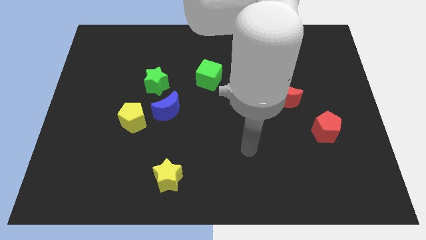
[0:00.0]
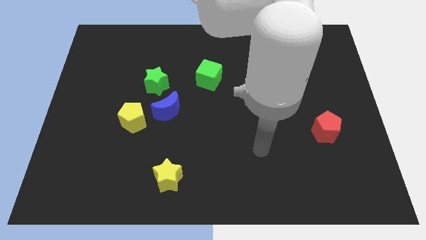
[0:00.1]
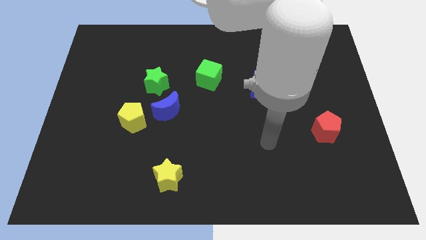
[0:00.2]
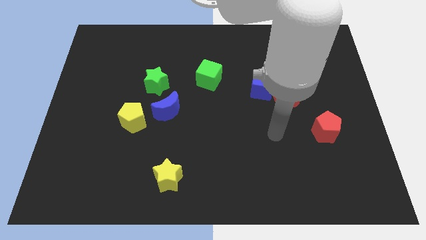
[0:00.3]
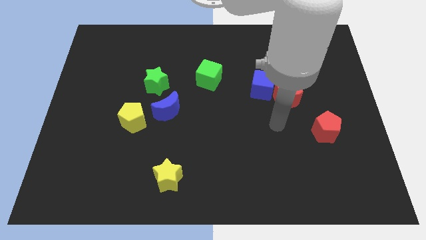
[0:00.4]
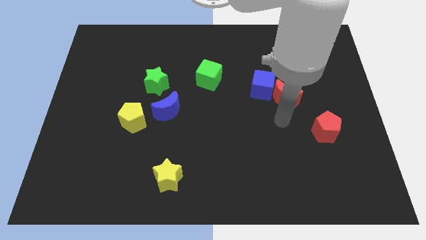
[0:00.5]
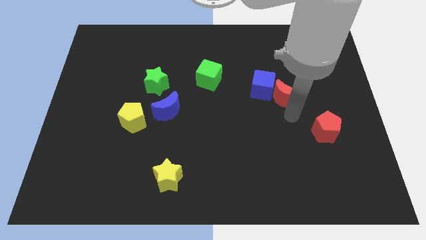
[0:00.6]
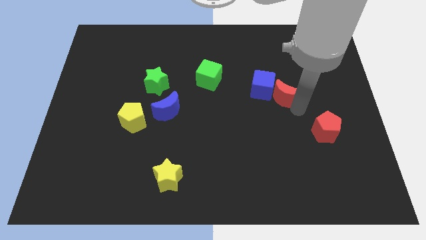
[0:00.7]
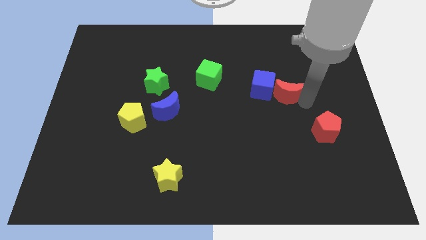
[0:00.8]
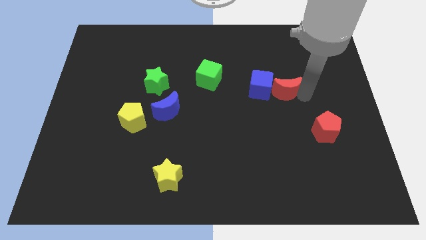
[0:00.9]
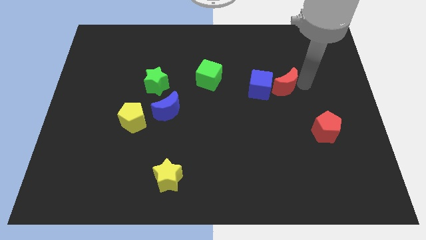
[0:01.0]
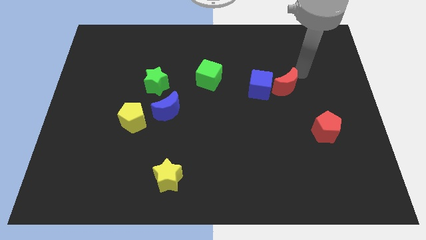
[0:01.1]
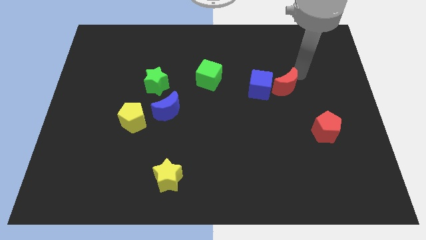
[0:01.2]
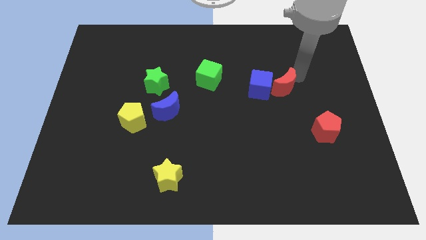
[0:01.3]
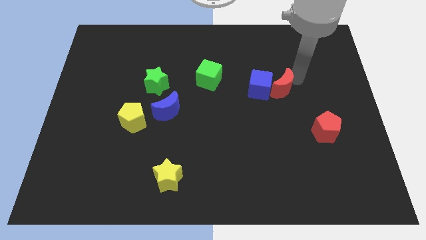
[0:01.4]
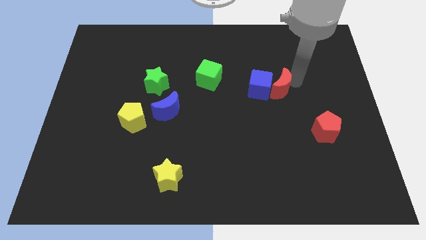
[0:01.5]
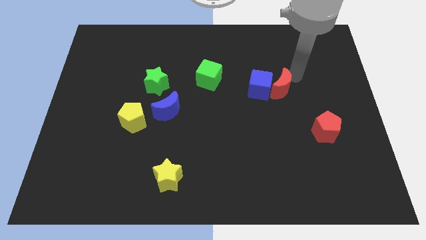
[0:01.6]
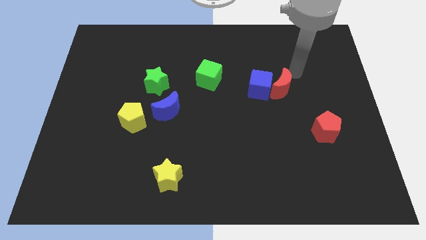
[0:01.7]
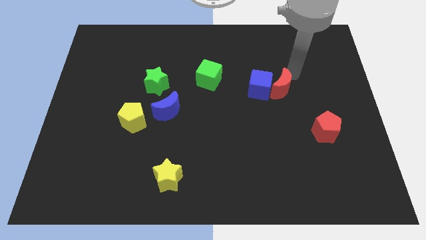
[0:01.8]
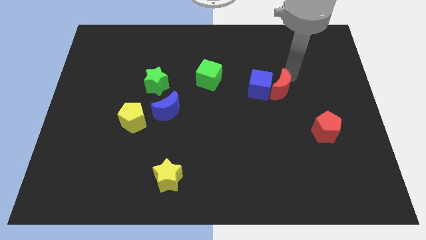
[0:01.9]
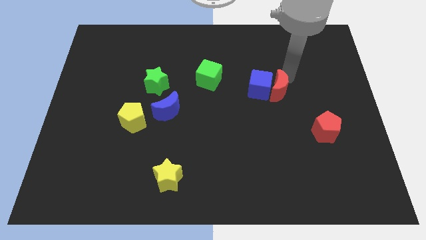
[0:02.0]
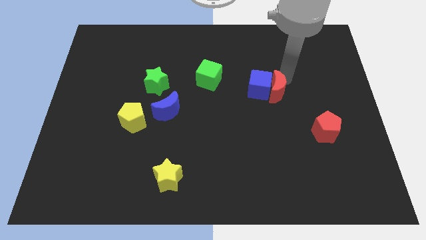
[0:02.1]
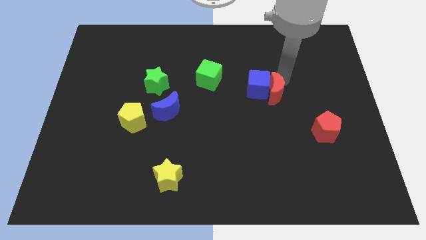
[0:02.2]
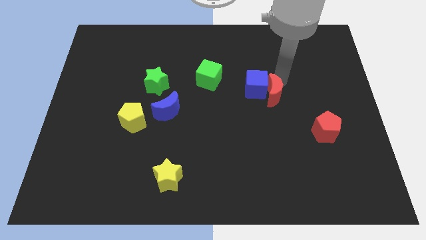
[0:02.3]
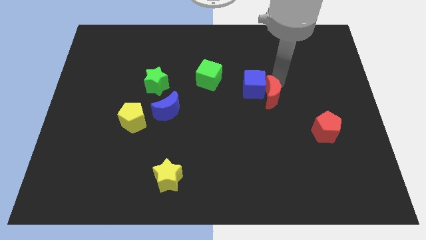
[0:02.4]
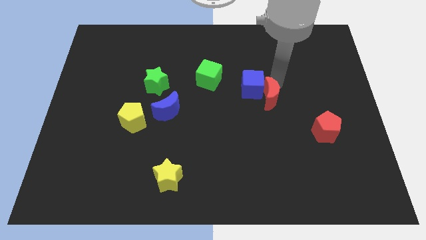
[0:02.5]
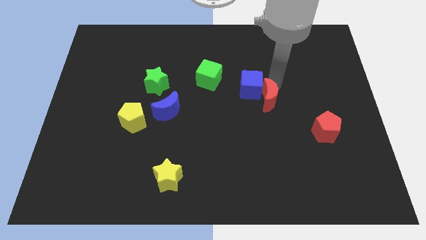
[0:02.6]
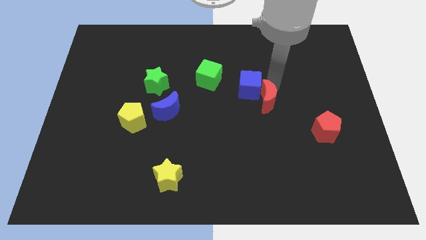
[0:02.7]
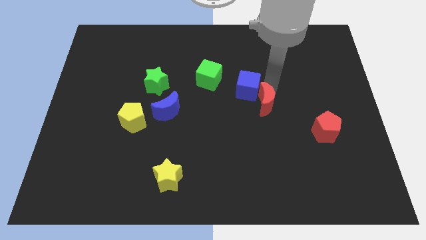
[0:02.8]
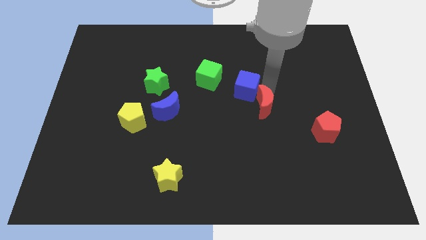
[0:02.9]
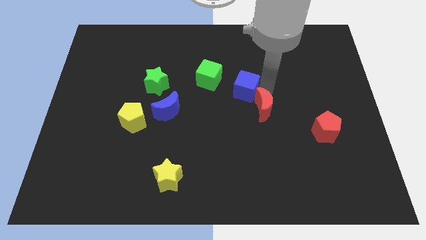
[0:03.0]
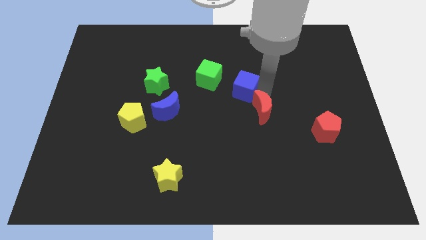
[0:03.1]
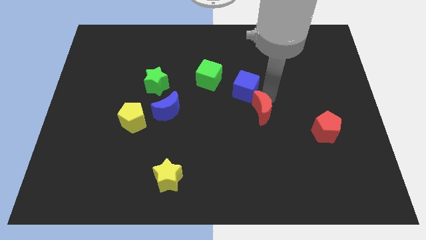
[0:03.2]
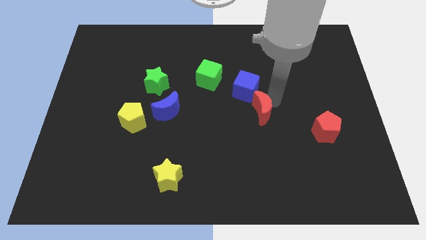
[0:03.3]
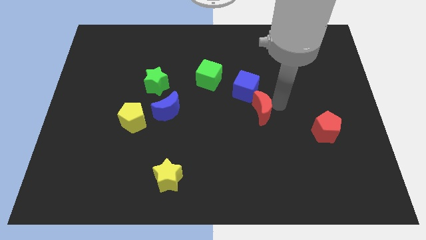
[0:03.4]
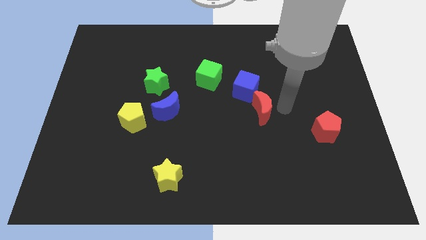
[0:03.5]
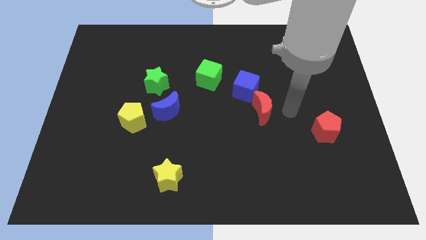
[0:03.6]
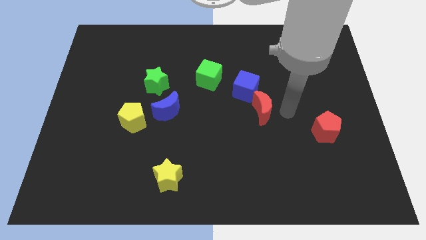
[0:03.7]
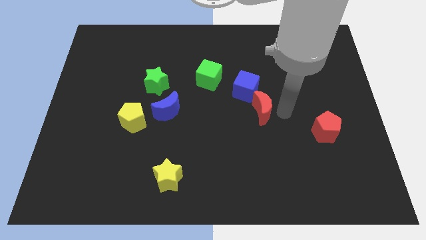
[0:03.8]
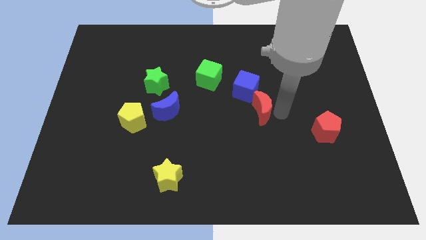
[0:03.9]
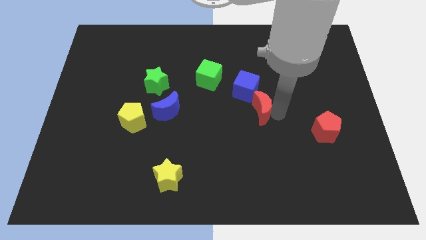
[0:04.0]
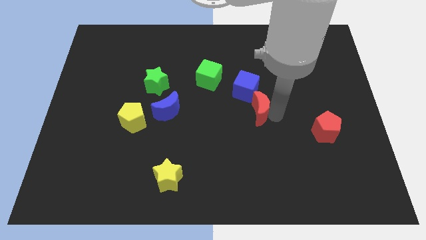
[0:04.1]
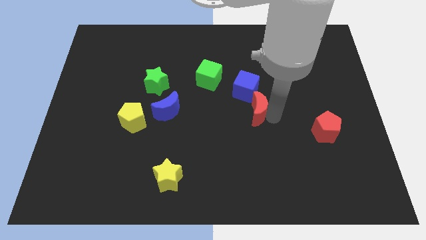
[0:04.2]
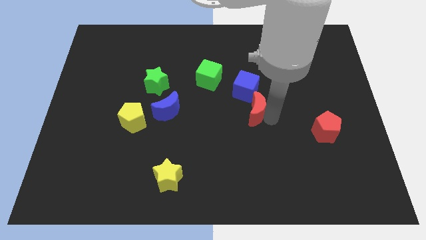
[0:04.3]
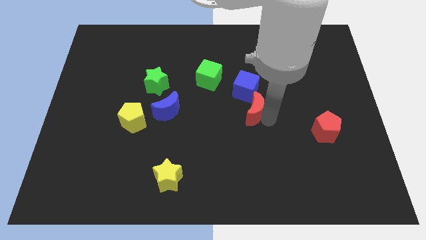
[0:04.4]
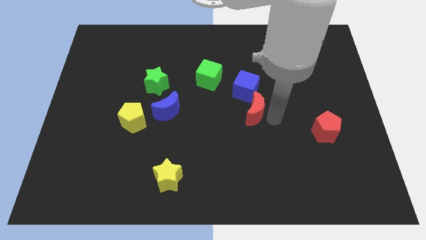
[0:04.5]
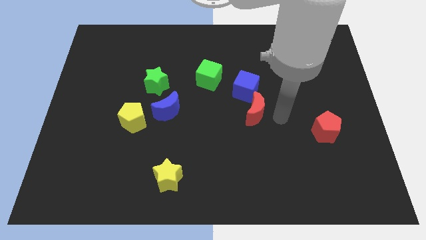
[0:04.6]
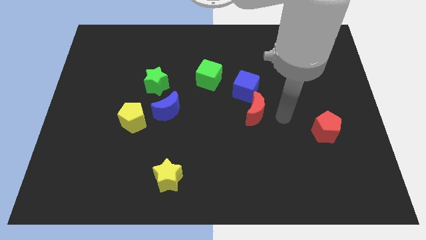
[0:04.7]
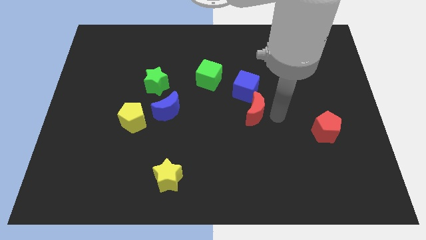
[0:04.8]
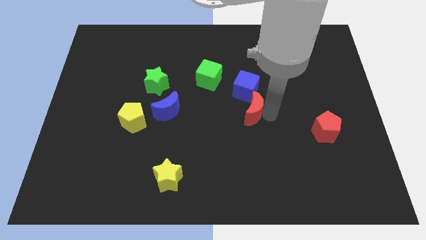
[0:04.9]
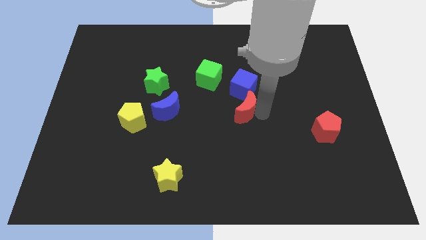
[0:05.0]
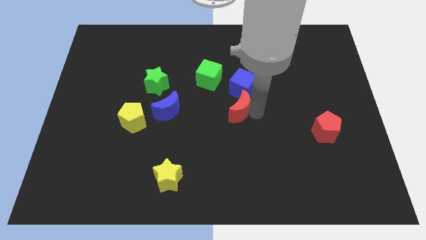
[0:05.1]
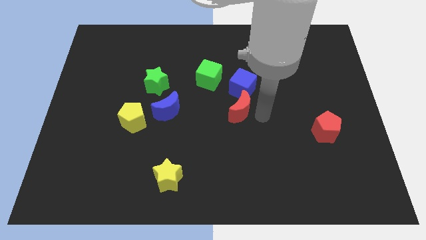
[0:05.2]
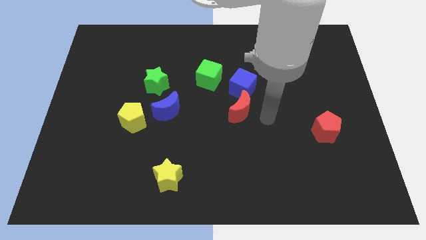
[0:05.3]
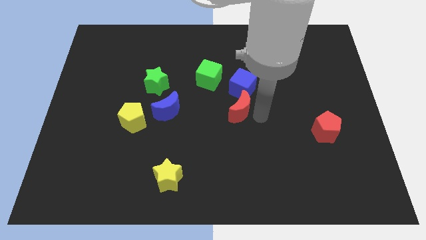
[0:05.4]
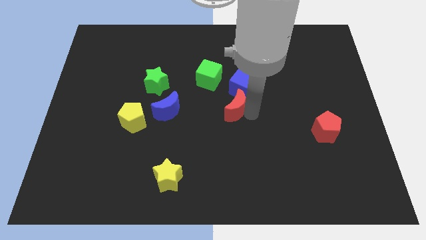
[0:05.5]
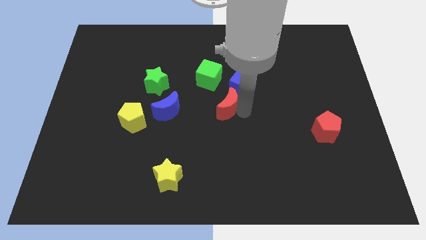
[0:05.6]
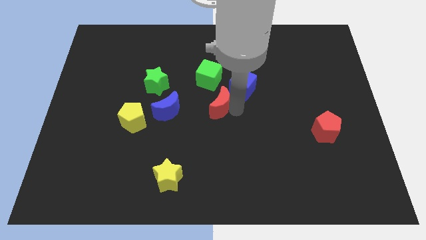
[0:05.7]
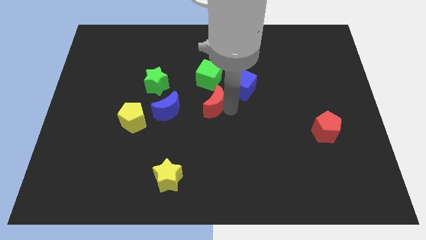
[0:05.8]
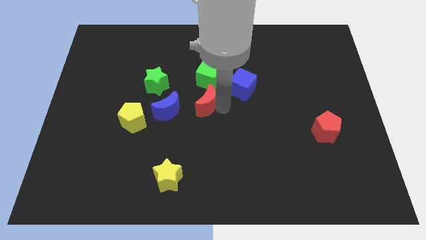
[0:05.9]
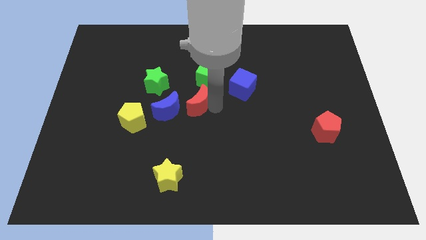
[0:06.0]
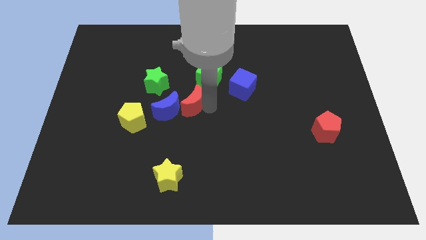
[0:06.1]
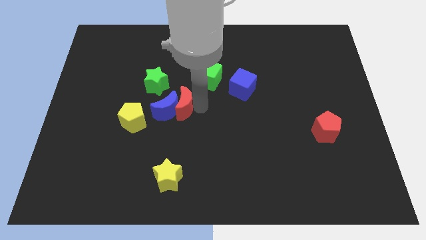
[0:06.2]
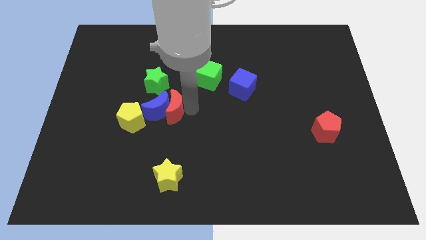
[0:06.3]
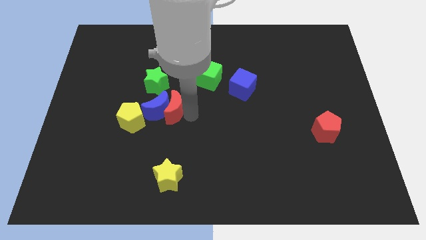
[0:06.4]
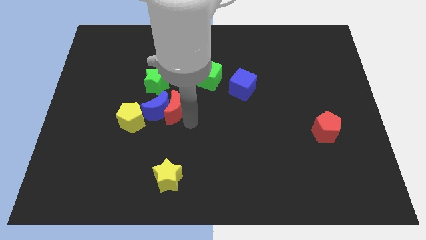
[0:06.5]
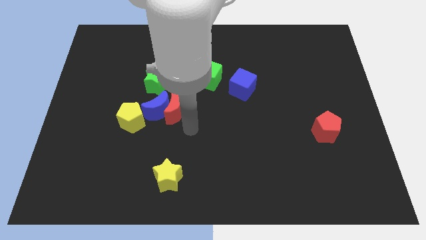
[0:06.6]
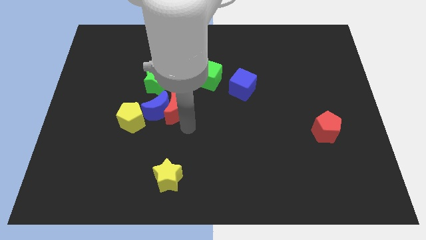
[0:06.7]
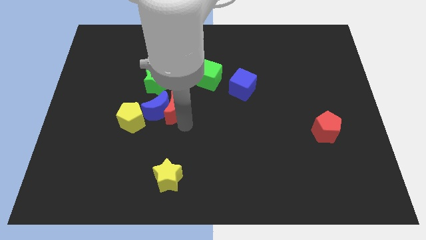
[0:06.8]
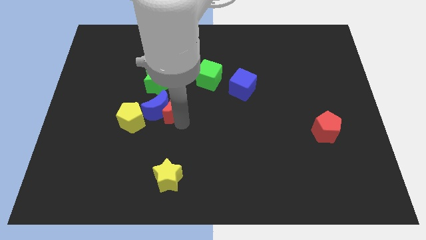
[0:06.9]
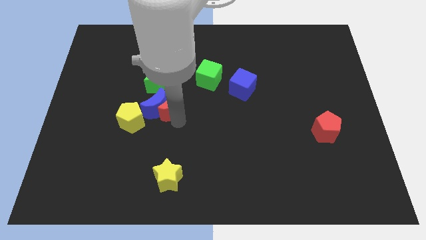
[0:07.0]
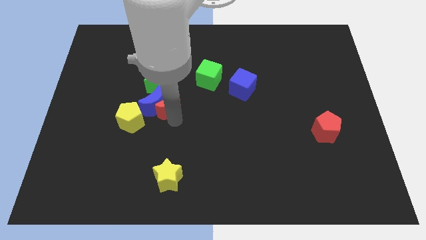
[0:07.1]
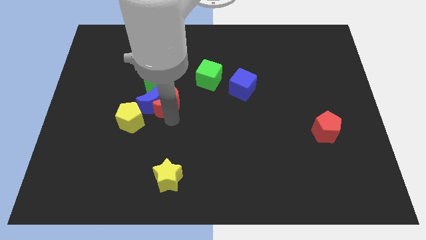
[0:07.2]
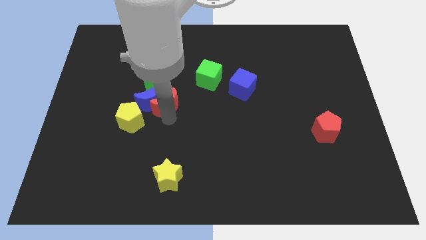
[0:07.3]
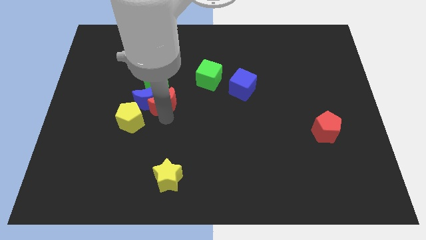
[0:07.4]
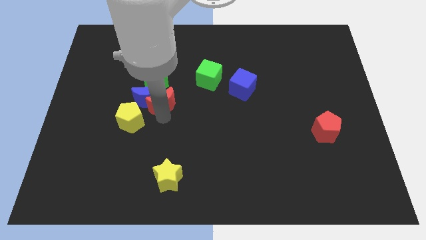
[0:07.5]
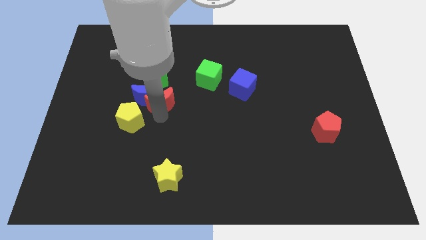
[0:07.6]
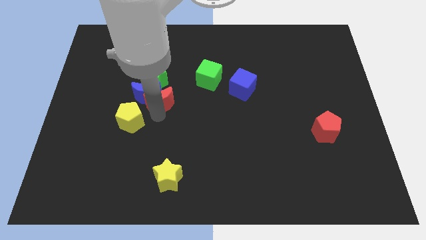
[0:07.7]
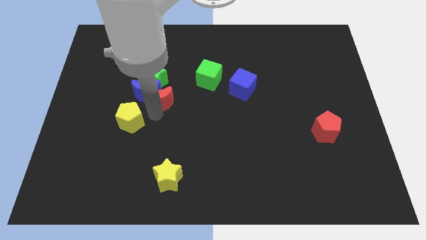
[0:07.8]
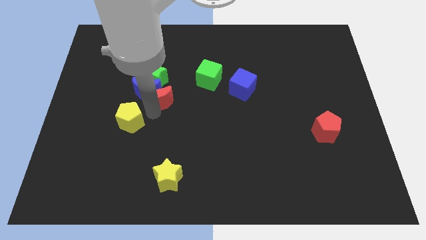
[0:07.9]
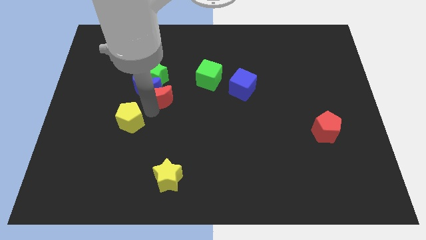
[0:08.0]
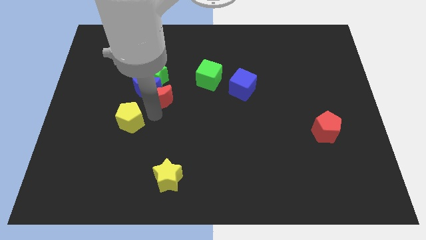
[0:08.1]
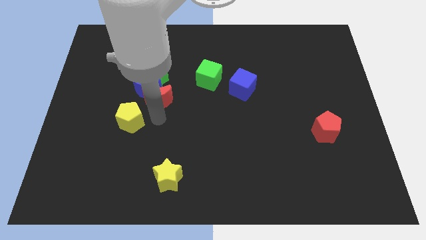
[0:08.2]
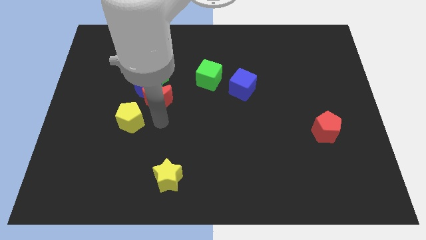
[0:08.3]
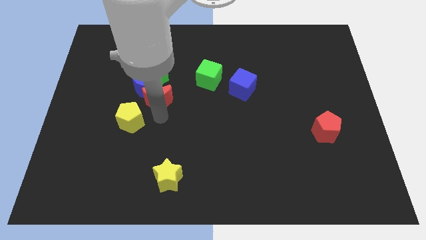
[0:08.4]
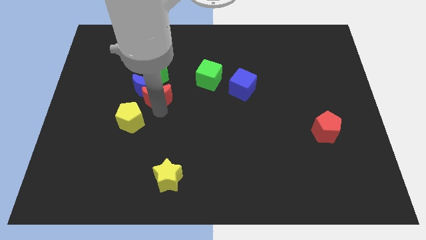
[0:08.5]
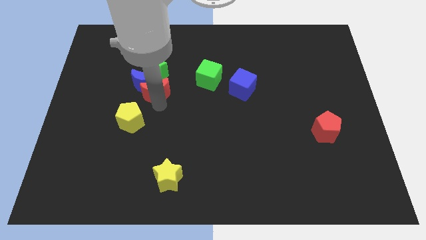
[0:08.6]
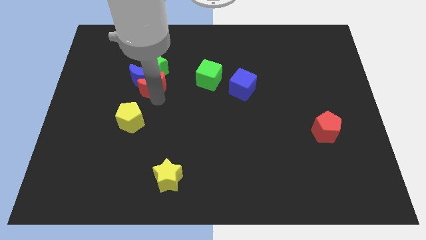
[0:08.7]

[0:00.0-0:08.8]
move the red moon towards the green star
